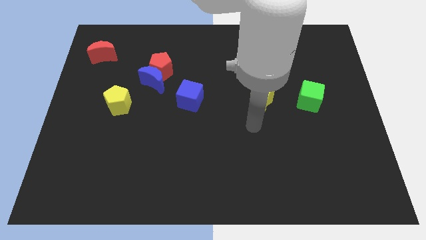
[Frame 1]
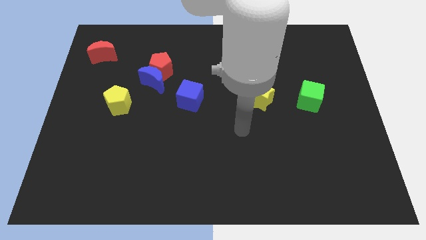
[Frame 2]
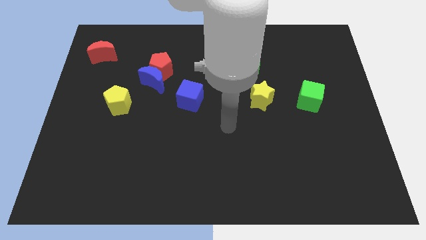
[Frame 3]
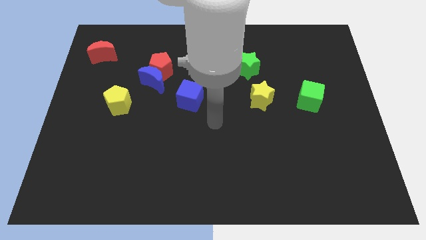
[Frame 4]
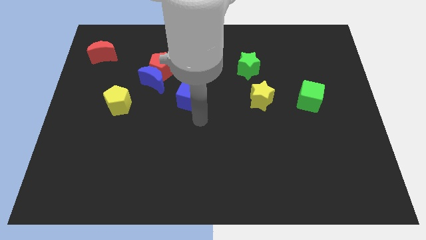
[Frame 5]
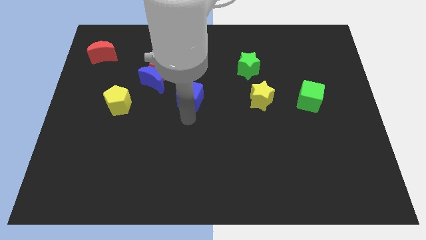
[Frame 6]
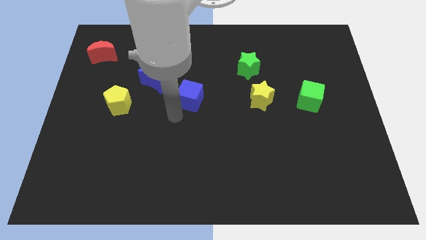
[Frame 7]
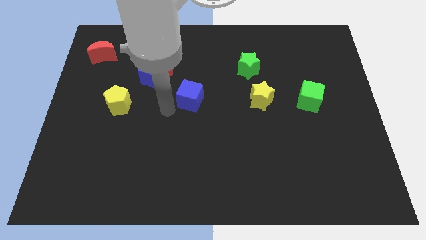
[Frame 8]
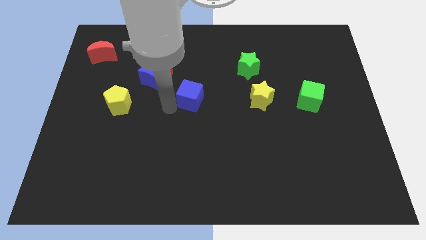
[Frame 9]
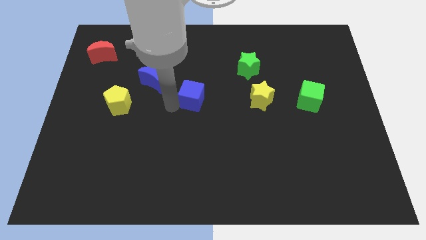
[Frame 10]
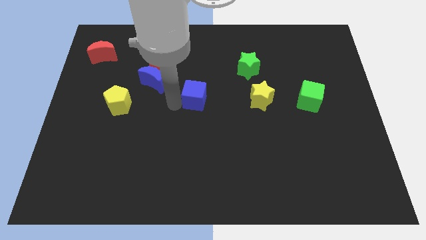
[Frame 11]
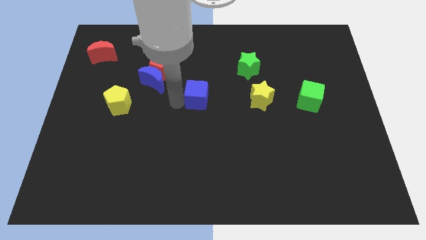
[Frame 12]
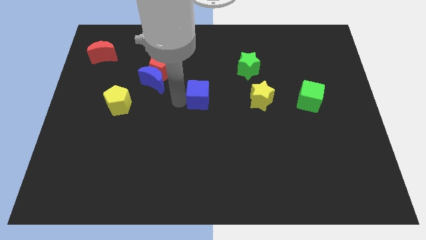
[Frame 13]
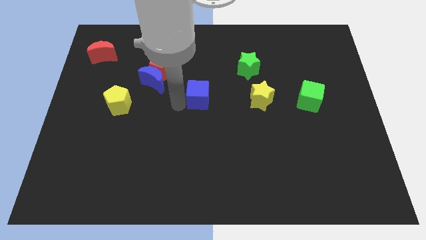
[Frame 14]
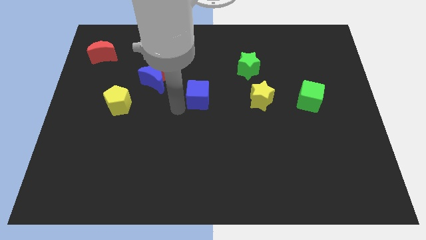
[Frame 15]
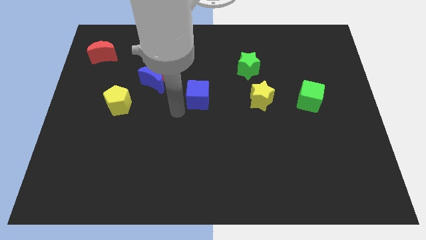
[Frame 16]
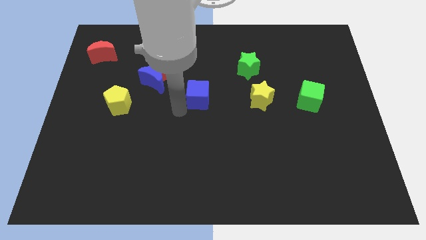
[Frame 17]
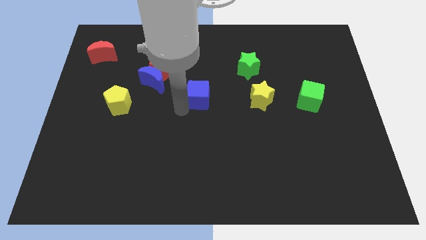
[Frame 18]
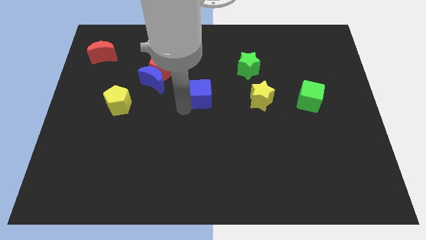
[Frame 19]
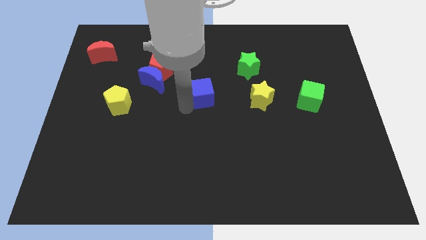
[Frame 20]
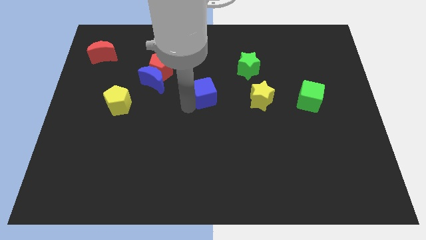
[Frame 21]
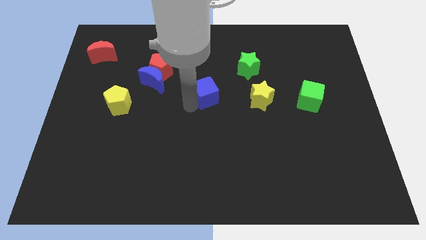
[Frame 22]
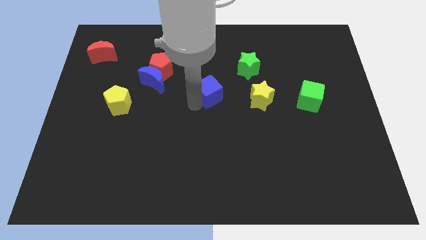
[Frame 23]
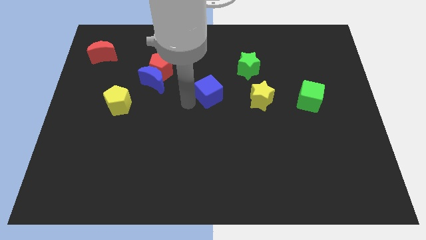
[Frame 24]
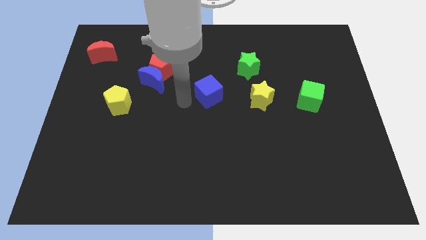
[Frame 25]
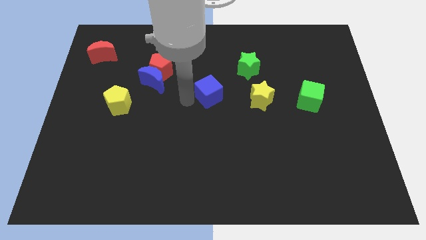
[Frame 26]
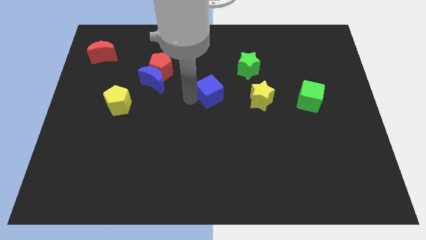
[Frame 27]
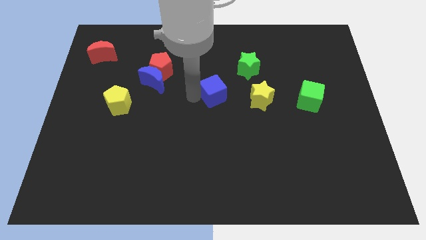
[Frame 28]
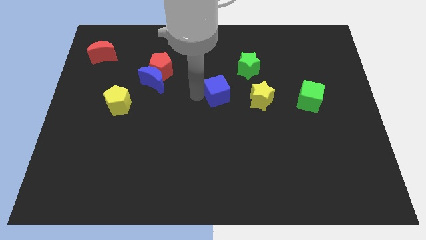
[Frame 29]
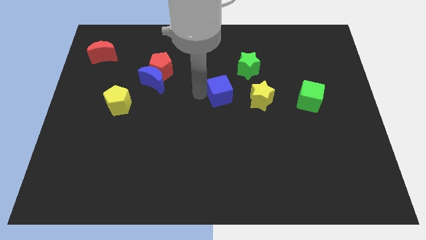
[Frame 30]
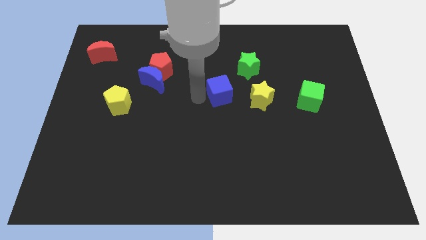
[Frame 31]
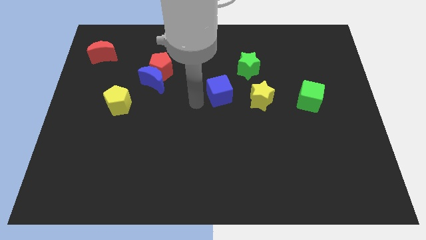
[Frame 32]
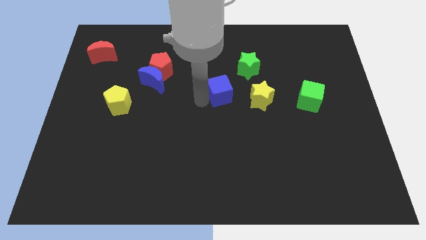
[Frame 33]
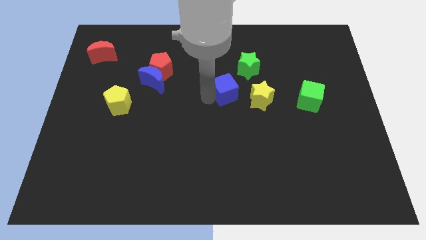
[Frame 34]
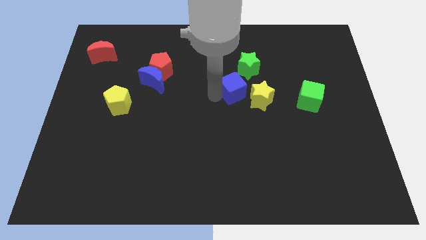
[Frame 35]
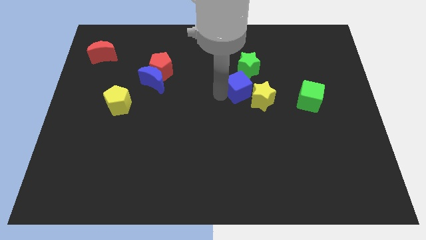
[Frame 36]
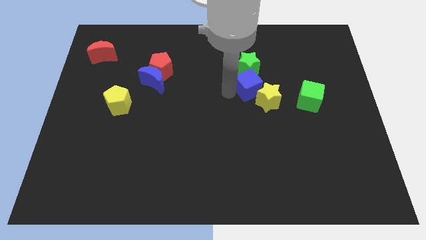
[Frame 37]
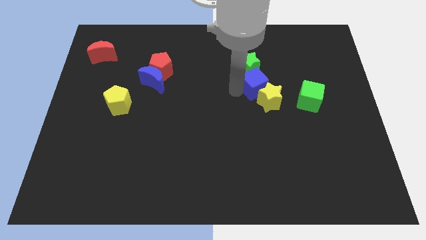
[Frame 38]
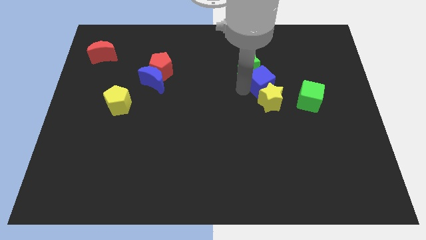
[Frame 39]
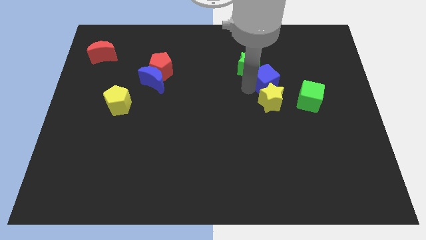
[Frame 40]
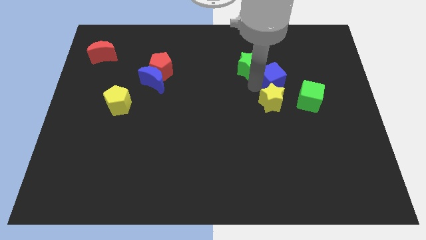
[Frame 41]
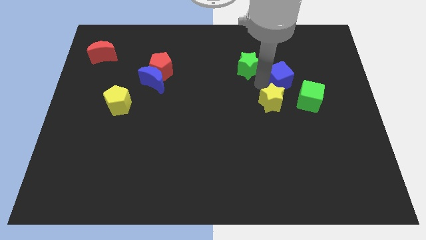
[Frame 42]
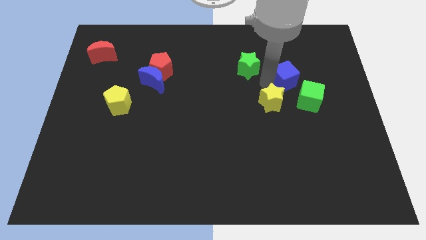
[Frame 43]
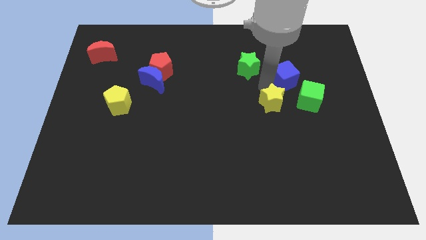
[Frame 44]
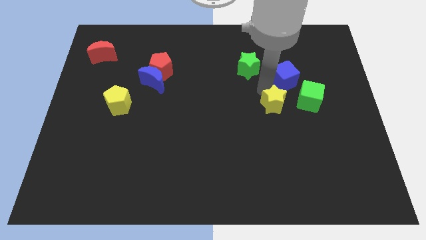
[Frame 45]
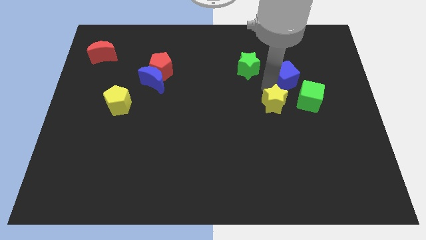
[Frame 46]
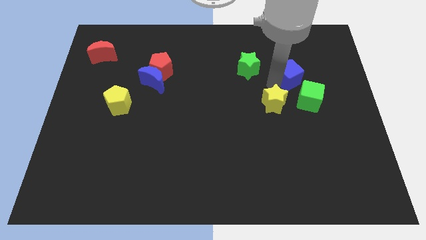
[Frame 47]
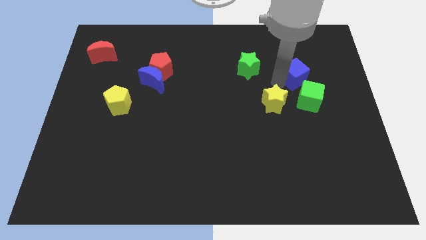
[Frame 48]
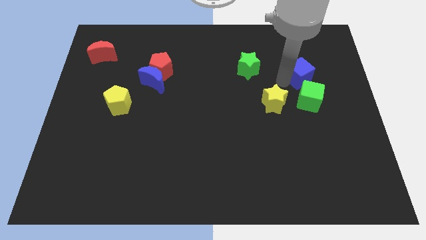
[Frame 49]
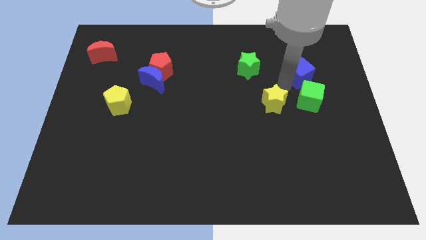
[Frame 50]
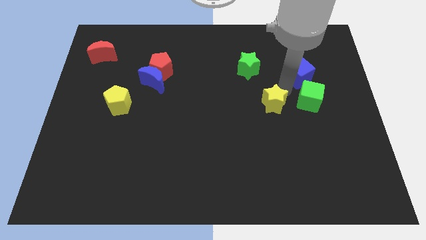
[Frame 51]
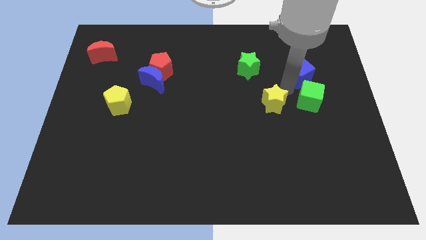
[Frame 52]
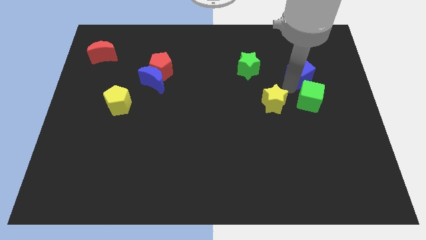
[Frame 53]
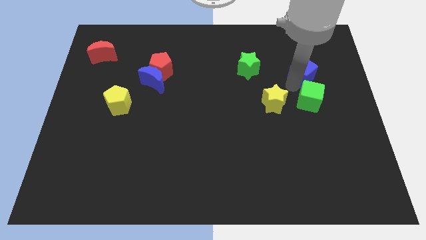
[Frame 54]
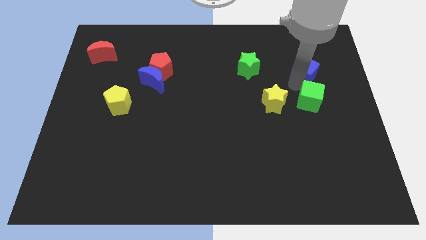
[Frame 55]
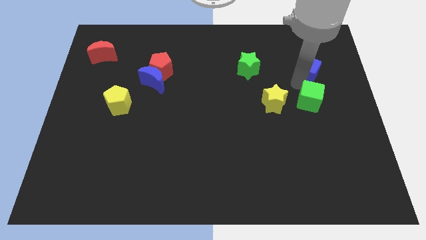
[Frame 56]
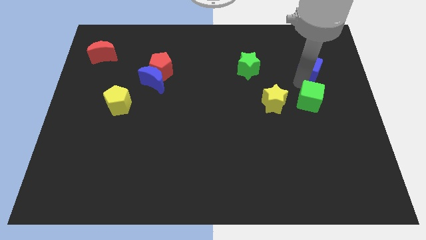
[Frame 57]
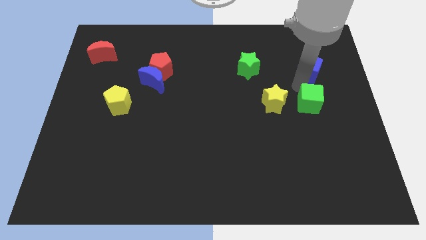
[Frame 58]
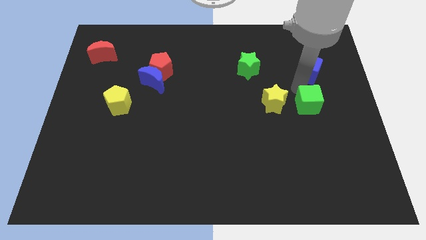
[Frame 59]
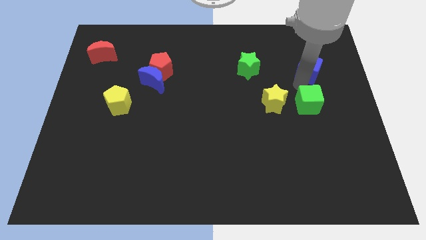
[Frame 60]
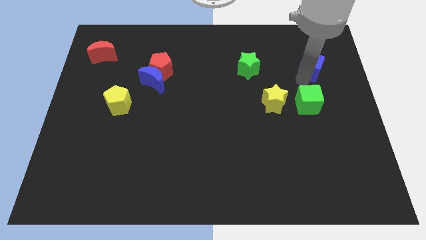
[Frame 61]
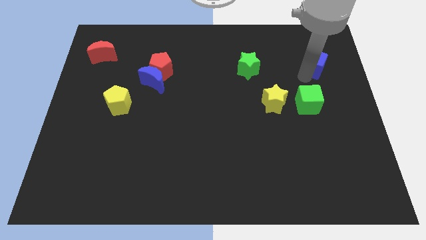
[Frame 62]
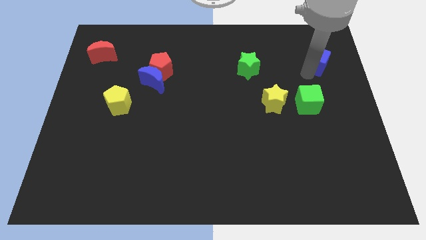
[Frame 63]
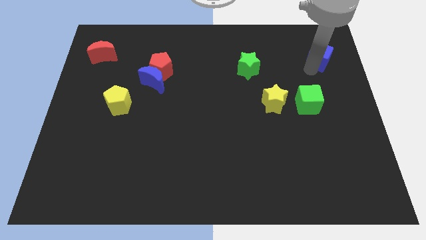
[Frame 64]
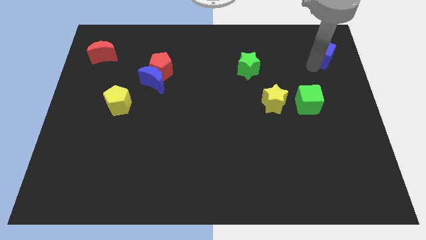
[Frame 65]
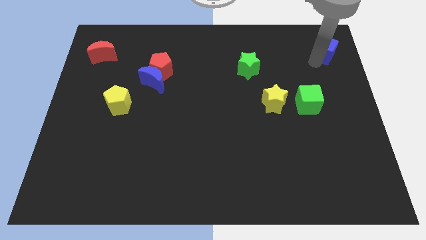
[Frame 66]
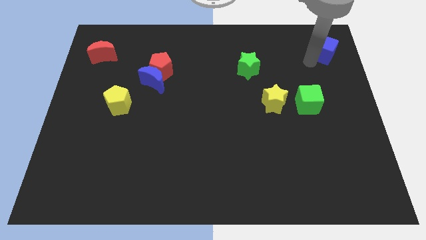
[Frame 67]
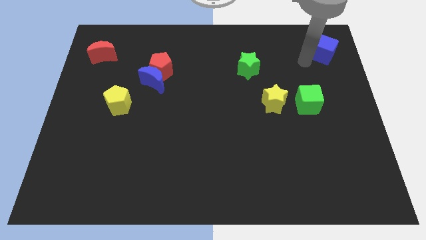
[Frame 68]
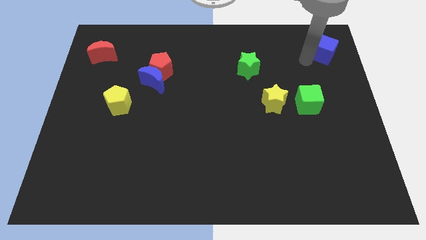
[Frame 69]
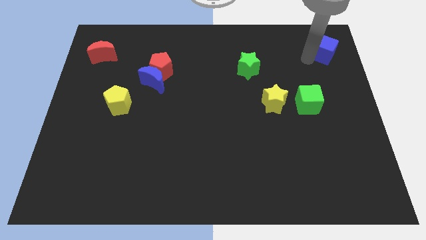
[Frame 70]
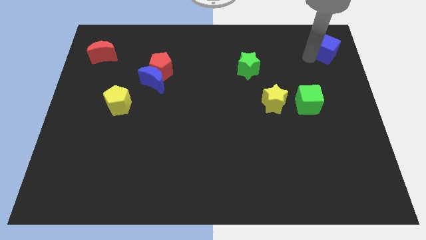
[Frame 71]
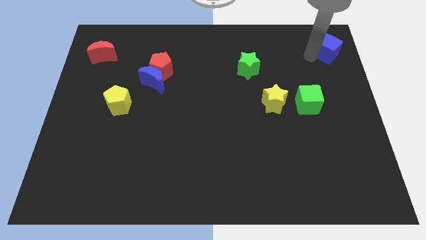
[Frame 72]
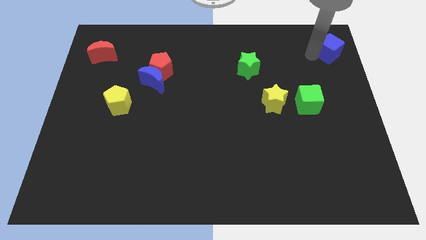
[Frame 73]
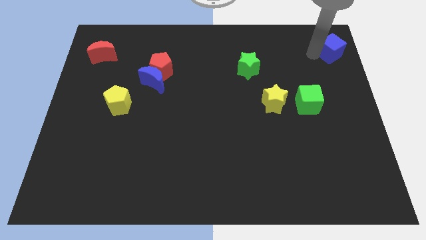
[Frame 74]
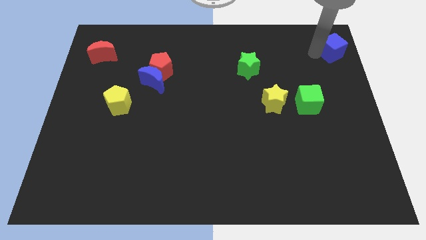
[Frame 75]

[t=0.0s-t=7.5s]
move the blue cube to the top right
